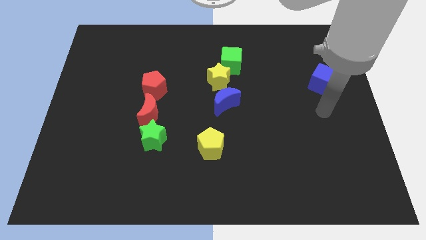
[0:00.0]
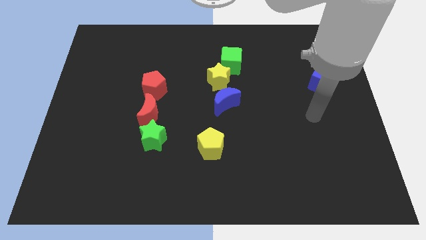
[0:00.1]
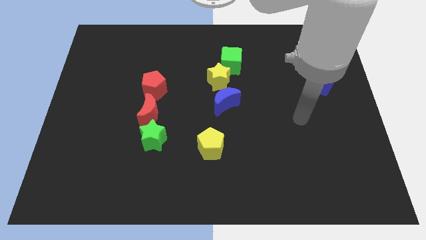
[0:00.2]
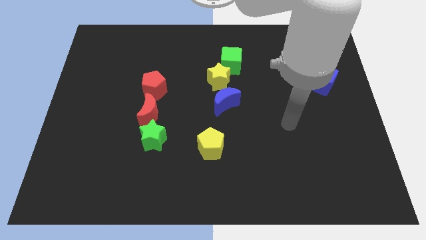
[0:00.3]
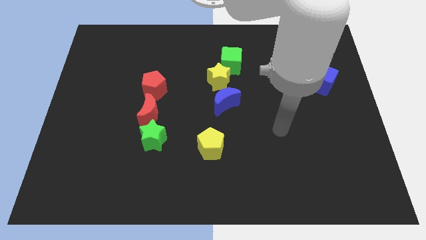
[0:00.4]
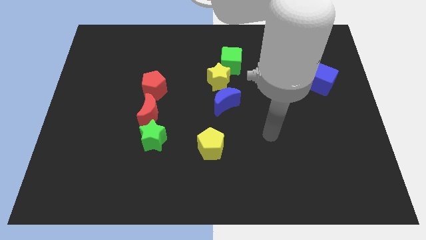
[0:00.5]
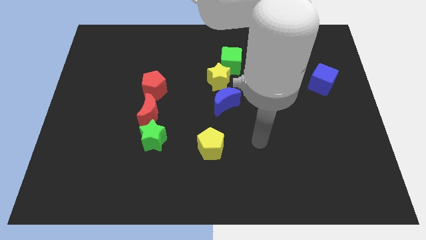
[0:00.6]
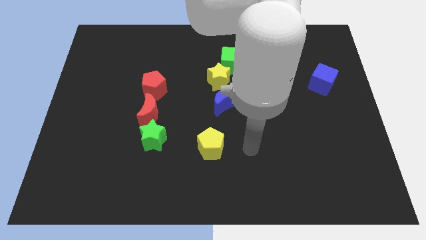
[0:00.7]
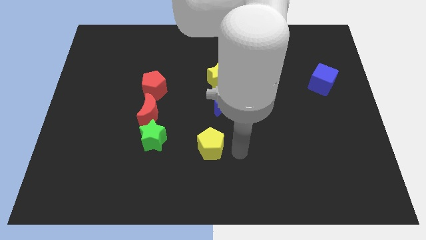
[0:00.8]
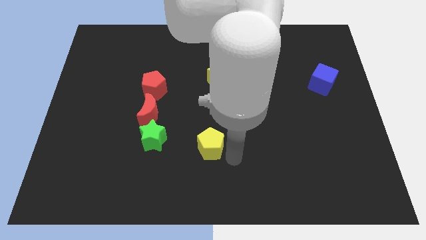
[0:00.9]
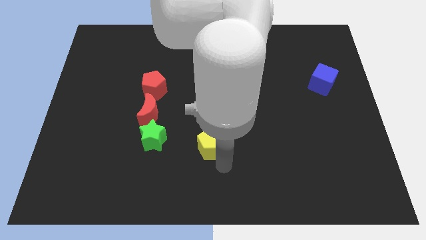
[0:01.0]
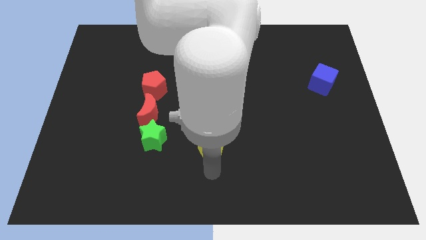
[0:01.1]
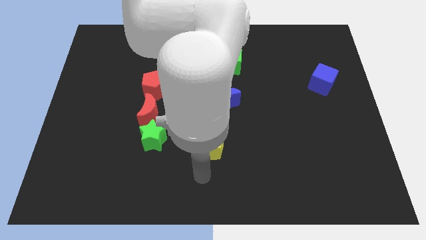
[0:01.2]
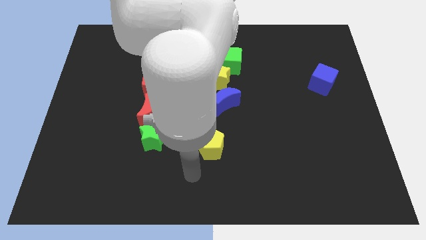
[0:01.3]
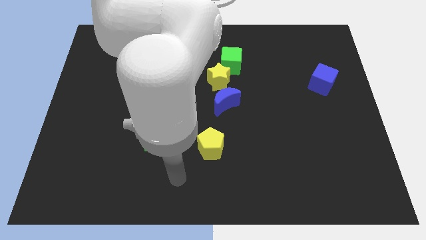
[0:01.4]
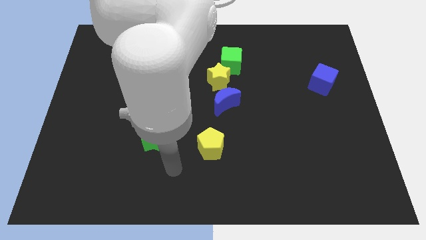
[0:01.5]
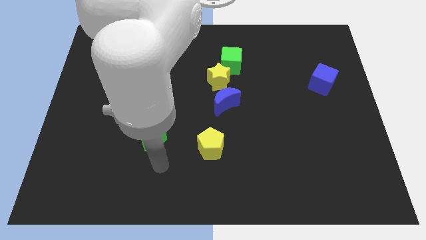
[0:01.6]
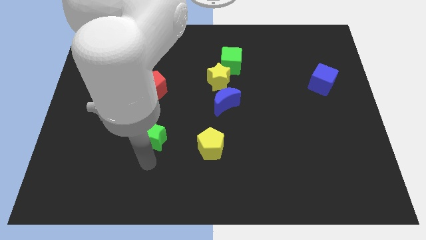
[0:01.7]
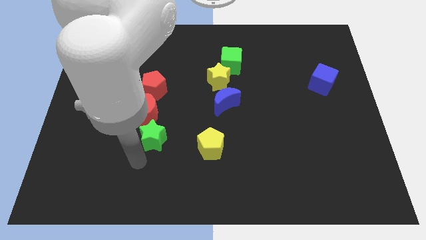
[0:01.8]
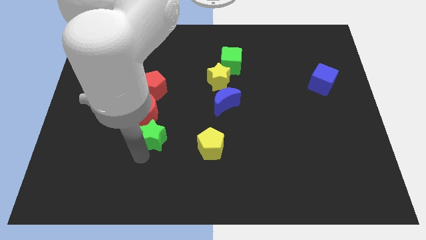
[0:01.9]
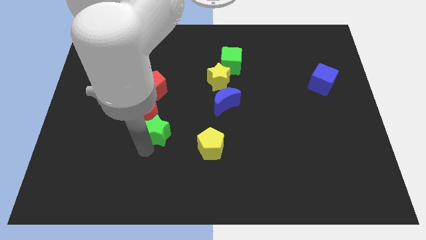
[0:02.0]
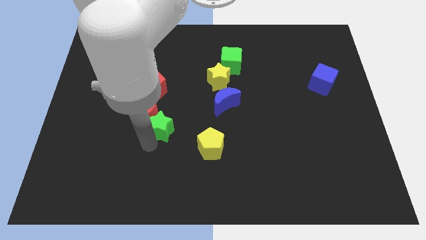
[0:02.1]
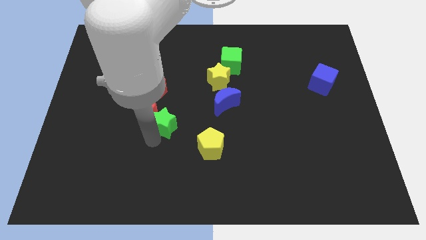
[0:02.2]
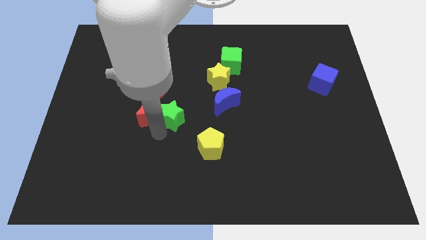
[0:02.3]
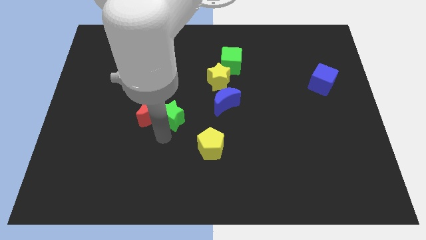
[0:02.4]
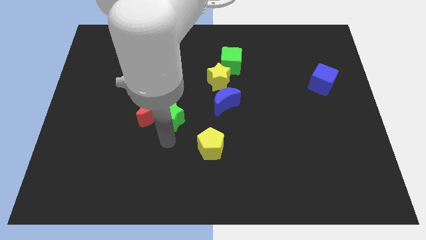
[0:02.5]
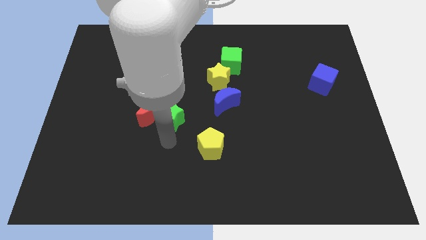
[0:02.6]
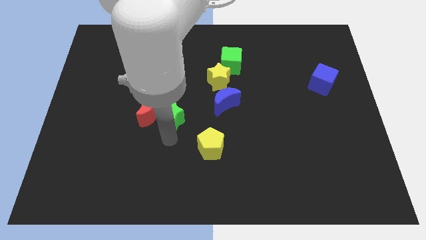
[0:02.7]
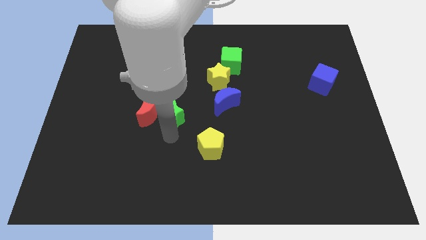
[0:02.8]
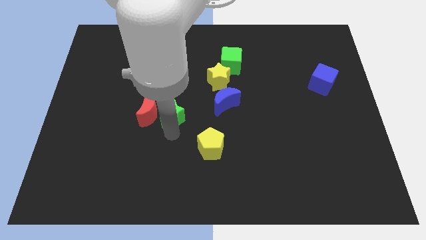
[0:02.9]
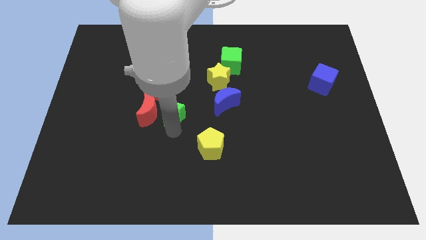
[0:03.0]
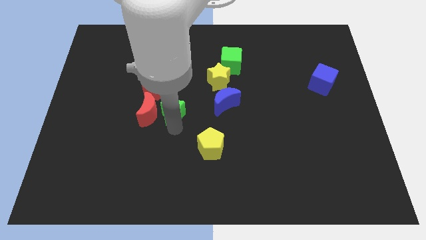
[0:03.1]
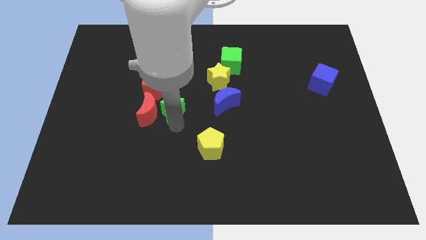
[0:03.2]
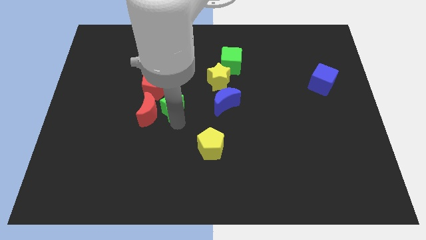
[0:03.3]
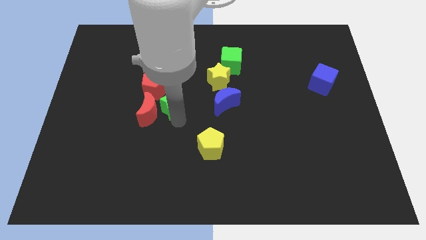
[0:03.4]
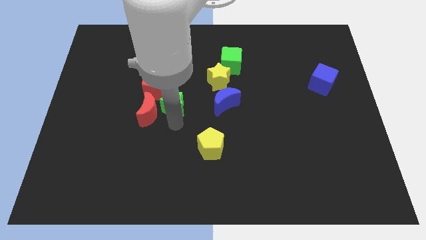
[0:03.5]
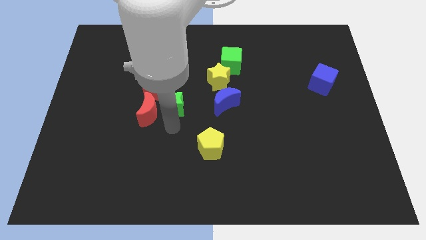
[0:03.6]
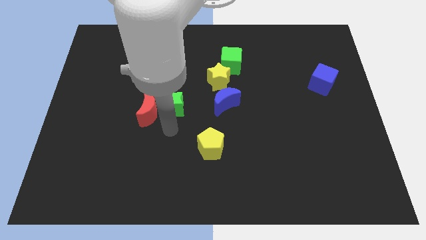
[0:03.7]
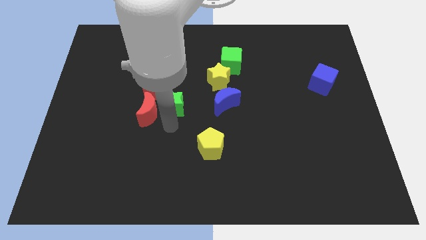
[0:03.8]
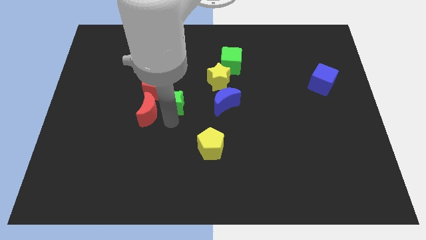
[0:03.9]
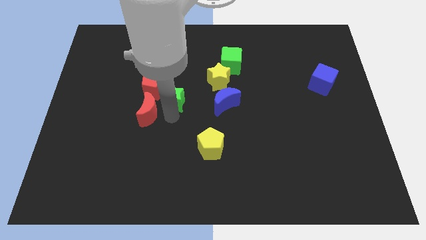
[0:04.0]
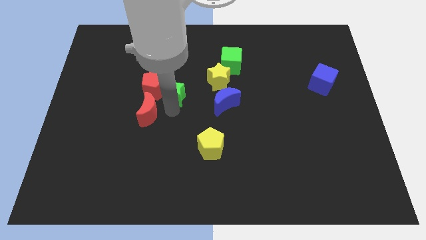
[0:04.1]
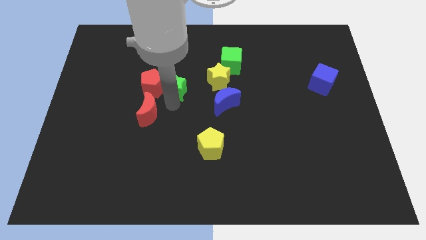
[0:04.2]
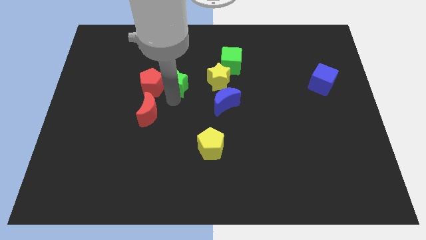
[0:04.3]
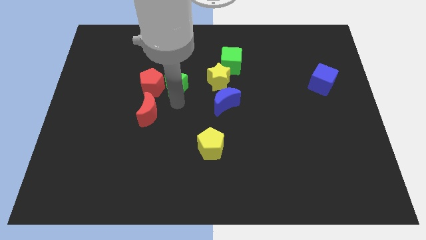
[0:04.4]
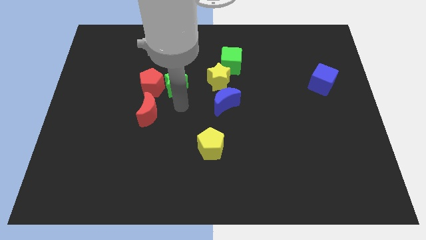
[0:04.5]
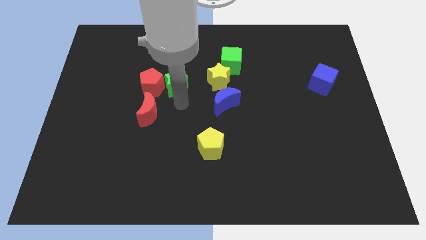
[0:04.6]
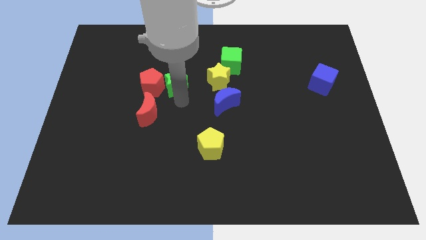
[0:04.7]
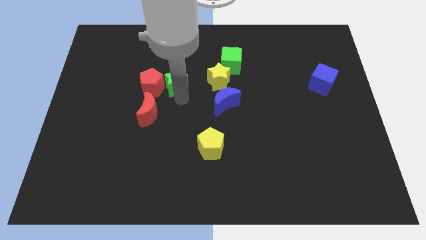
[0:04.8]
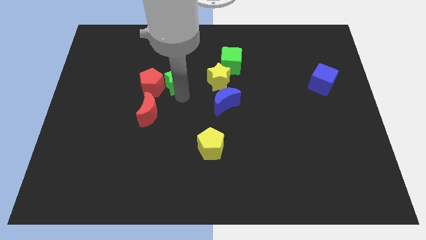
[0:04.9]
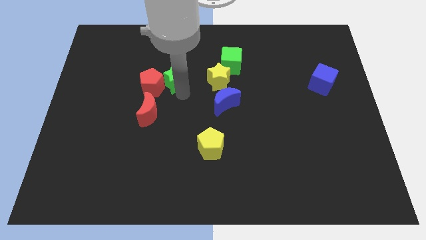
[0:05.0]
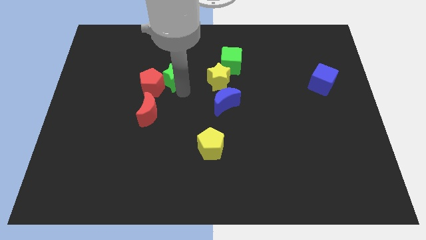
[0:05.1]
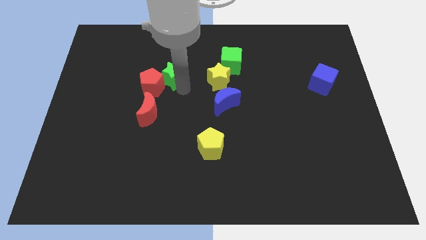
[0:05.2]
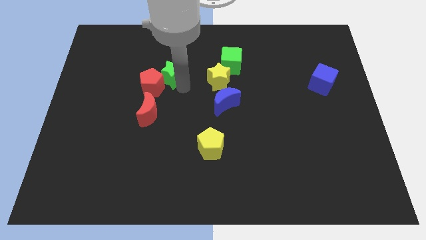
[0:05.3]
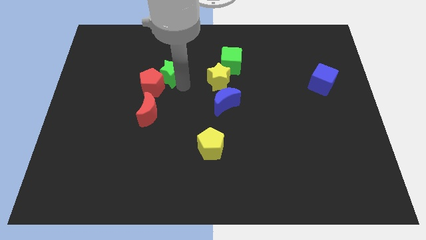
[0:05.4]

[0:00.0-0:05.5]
put the green star to the top side of the red pentagon

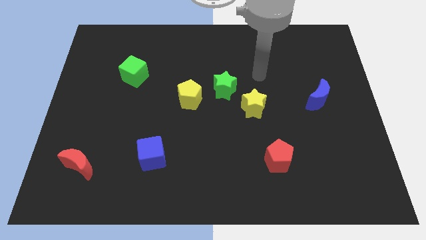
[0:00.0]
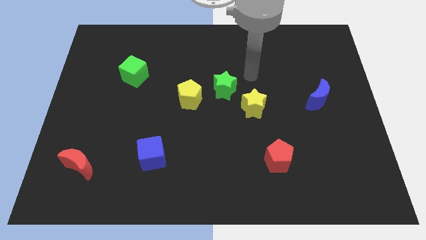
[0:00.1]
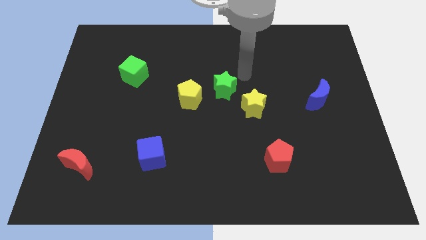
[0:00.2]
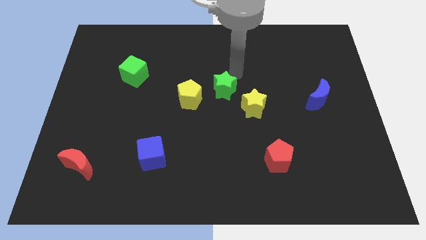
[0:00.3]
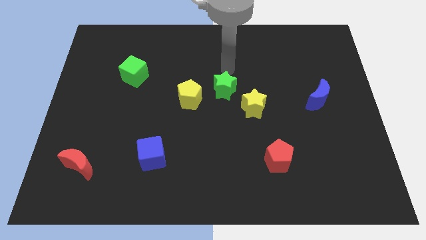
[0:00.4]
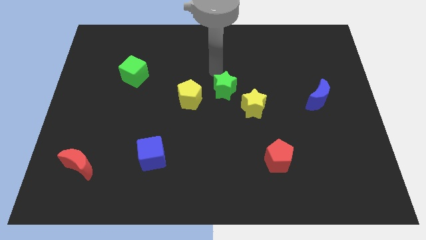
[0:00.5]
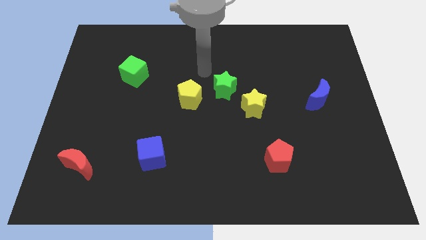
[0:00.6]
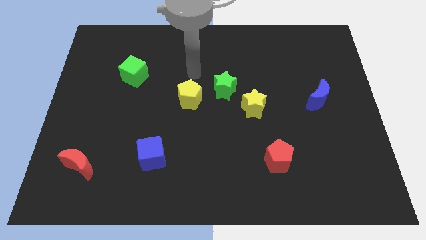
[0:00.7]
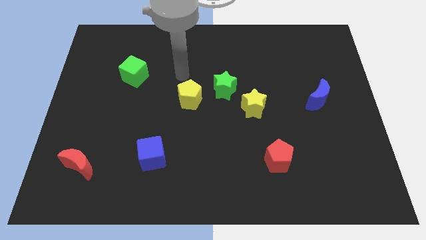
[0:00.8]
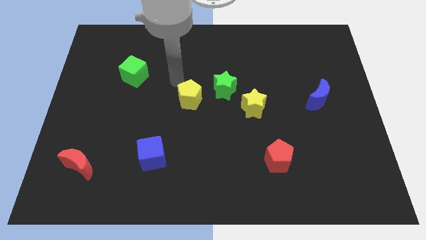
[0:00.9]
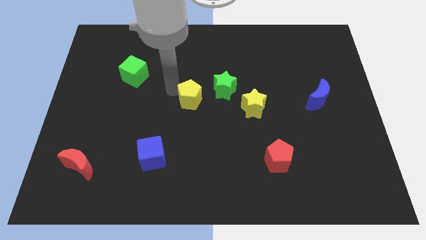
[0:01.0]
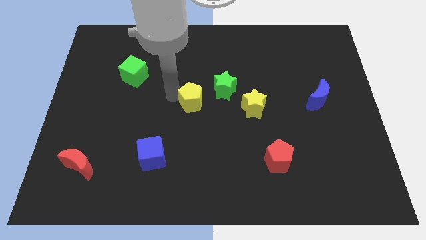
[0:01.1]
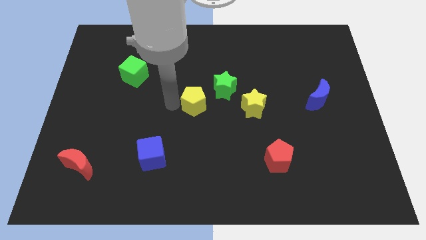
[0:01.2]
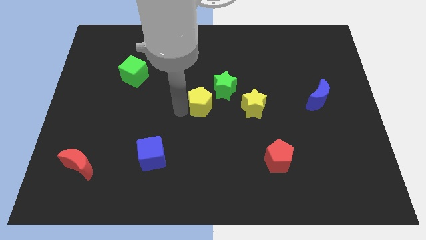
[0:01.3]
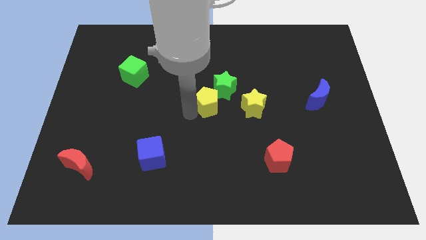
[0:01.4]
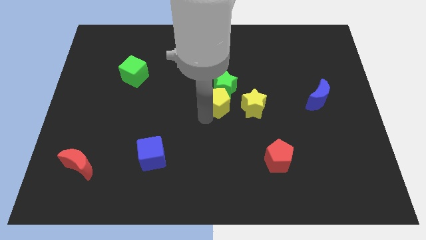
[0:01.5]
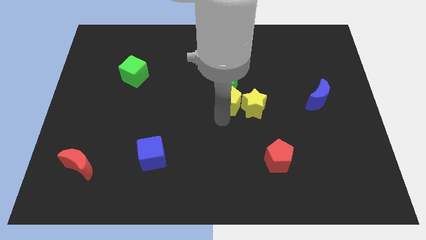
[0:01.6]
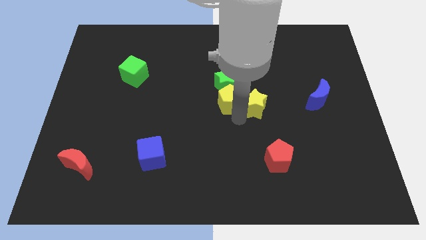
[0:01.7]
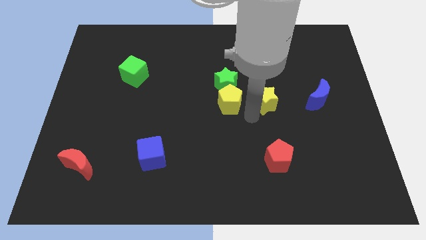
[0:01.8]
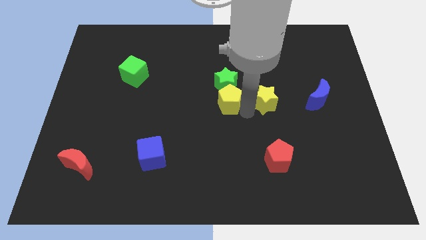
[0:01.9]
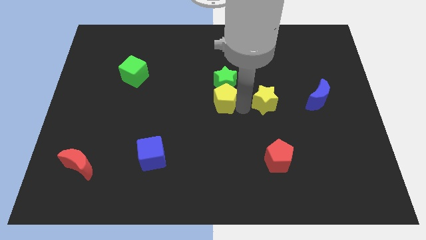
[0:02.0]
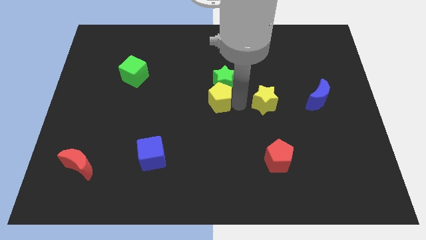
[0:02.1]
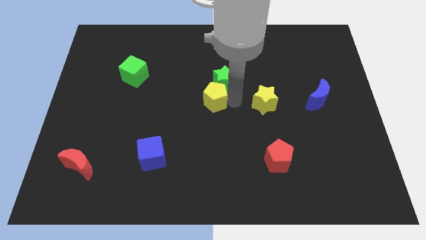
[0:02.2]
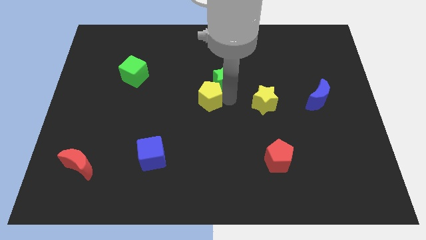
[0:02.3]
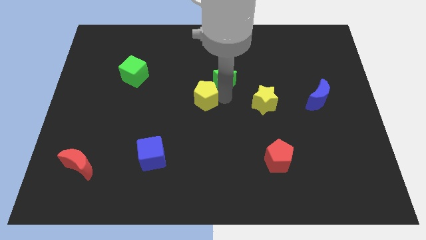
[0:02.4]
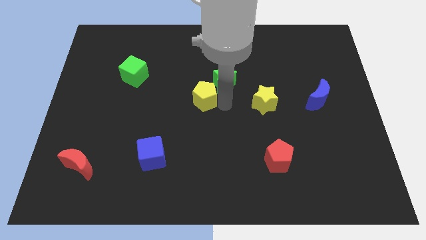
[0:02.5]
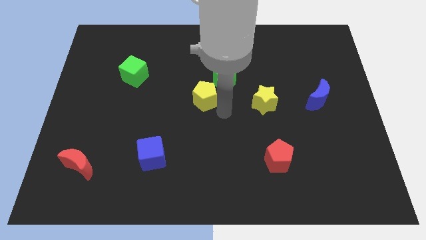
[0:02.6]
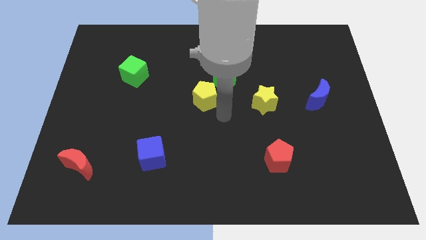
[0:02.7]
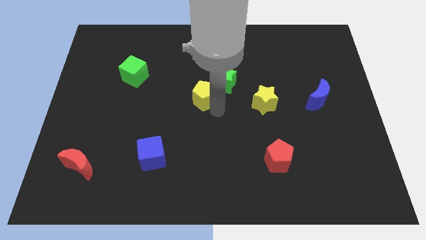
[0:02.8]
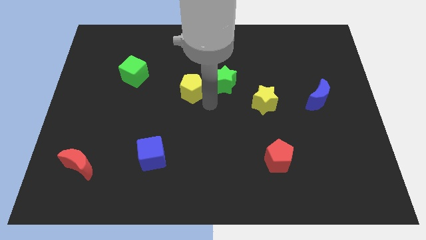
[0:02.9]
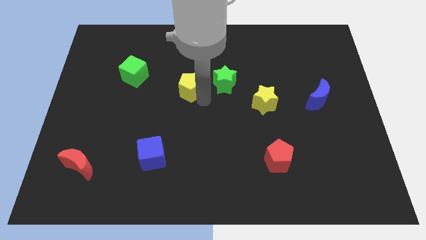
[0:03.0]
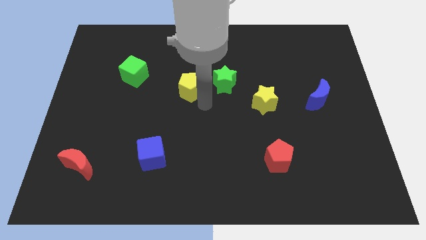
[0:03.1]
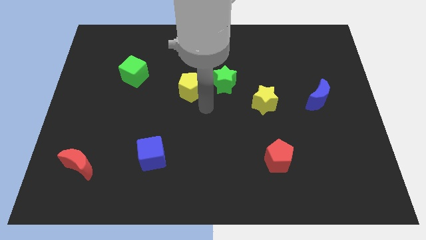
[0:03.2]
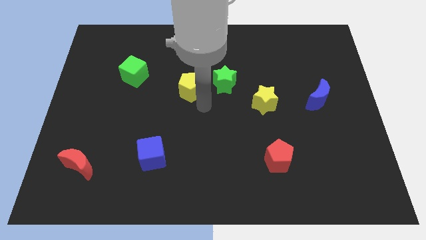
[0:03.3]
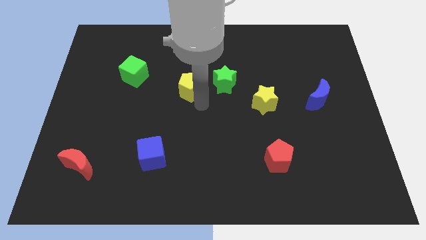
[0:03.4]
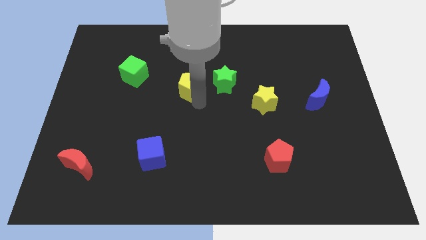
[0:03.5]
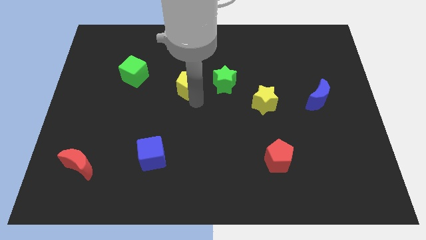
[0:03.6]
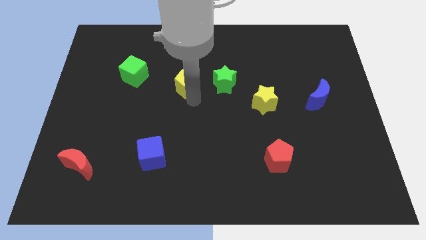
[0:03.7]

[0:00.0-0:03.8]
move the yellow pentagon to the right side of the green cube
